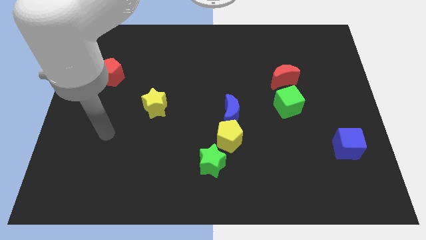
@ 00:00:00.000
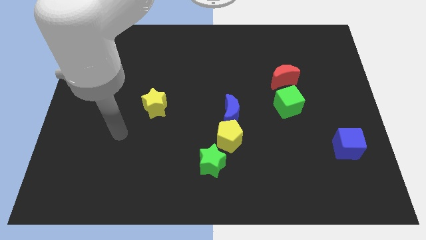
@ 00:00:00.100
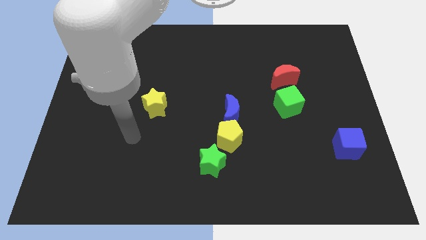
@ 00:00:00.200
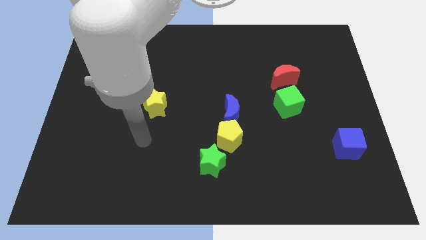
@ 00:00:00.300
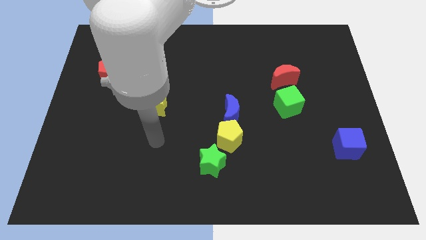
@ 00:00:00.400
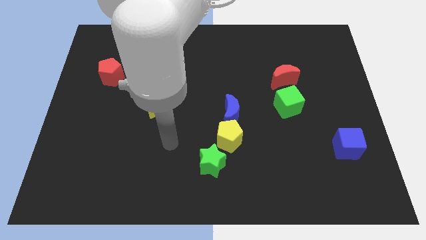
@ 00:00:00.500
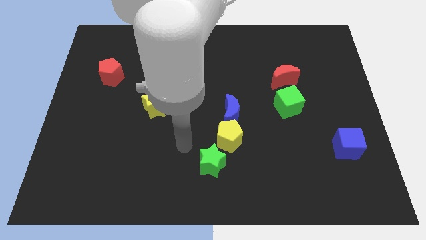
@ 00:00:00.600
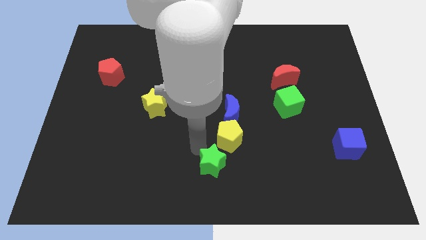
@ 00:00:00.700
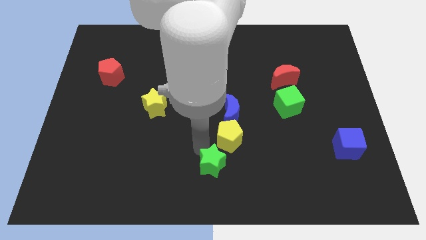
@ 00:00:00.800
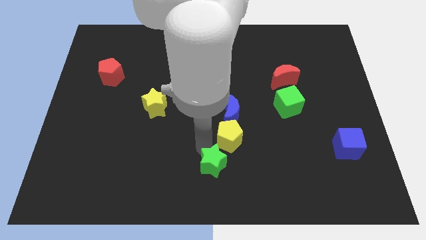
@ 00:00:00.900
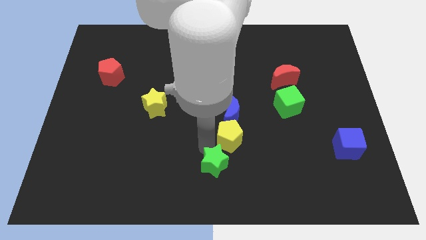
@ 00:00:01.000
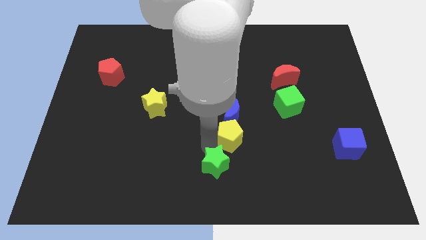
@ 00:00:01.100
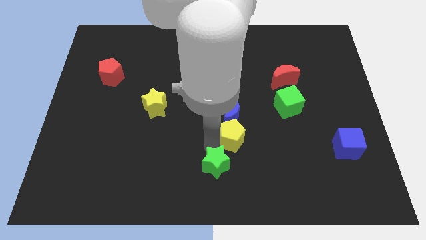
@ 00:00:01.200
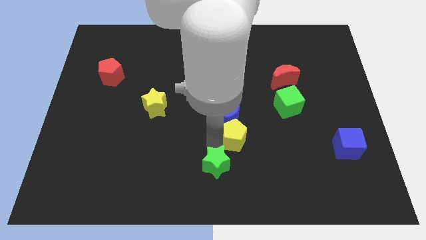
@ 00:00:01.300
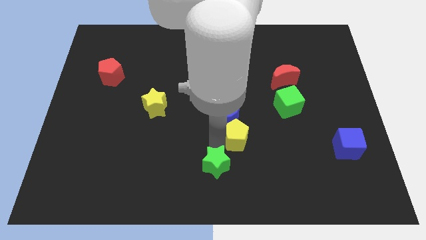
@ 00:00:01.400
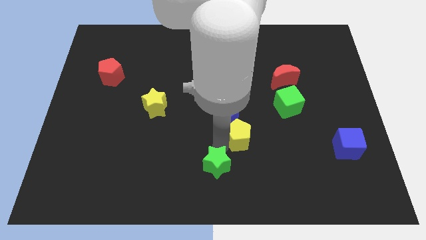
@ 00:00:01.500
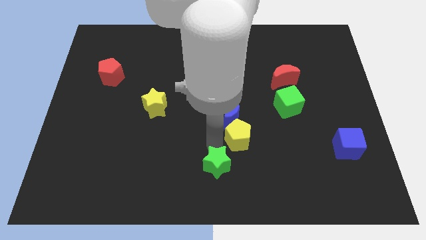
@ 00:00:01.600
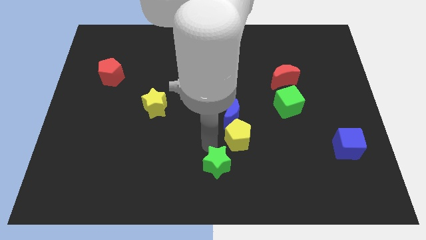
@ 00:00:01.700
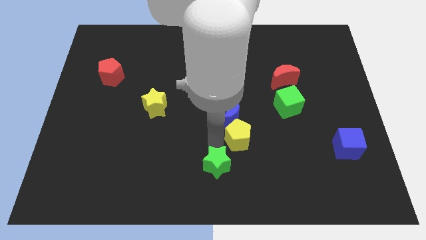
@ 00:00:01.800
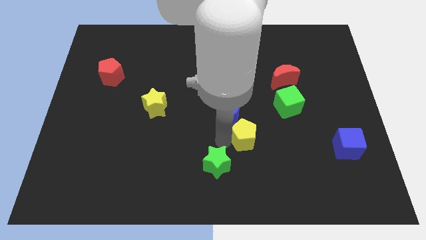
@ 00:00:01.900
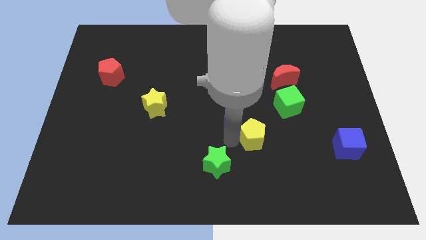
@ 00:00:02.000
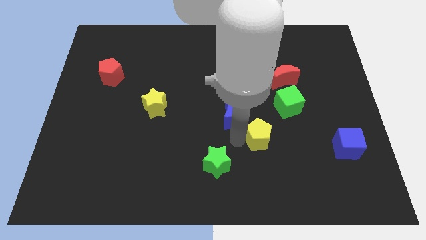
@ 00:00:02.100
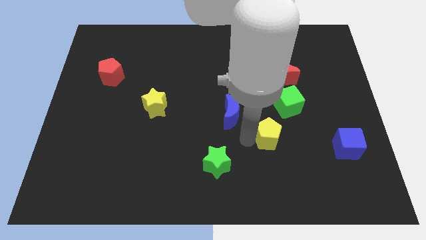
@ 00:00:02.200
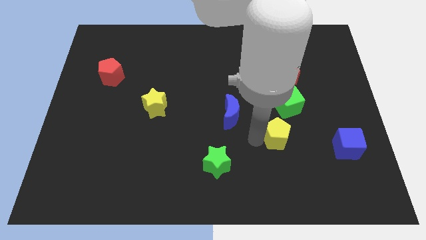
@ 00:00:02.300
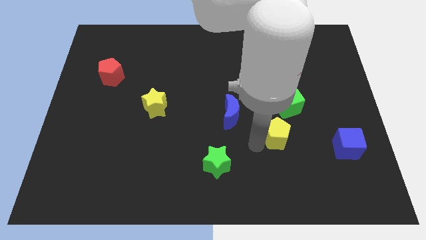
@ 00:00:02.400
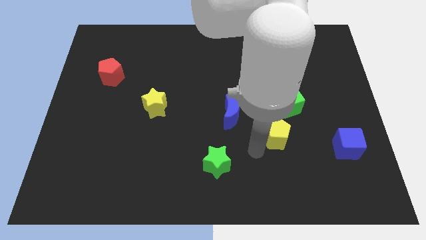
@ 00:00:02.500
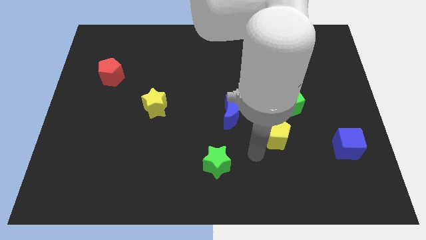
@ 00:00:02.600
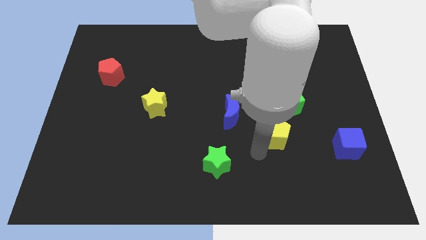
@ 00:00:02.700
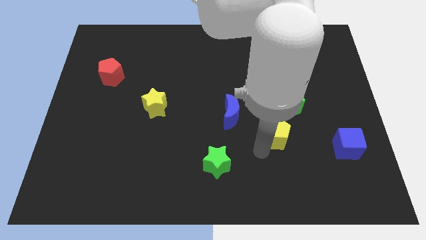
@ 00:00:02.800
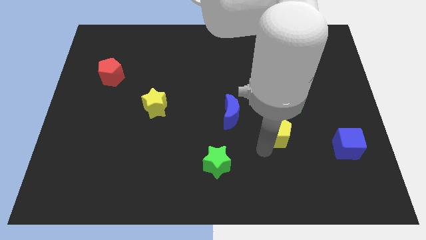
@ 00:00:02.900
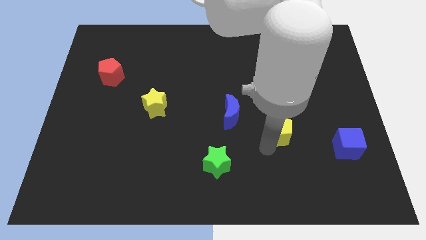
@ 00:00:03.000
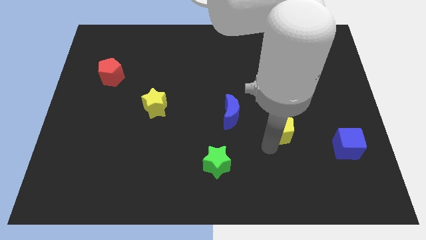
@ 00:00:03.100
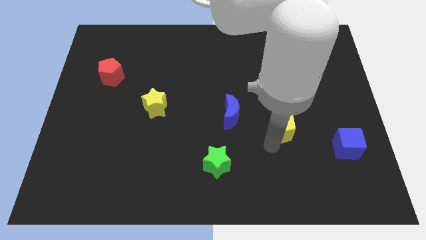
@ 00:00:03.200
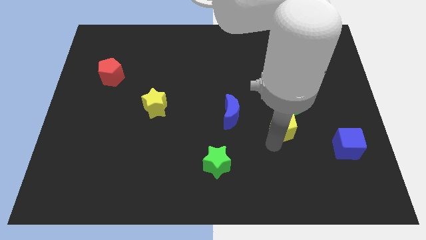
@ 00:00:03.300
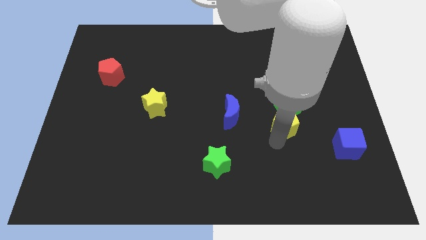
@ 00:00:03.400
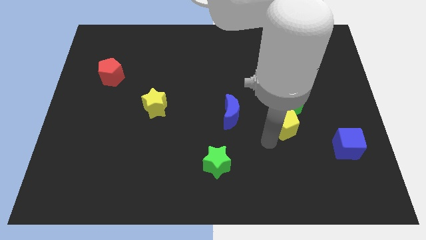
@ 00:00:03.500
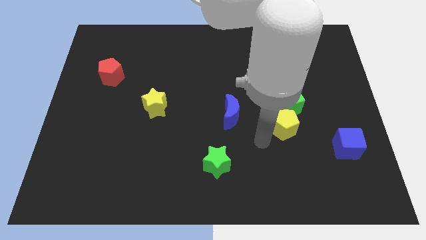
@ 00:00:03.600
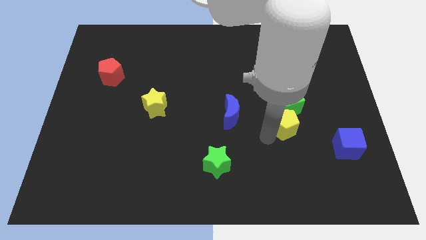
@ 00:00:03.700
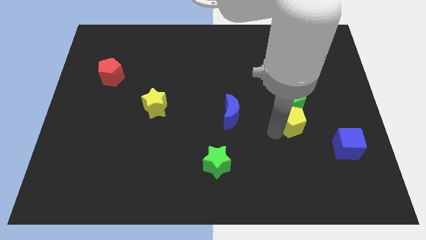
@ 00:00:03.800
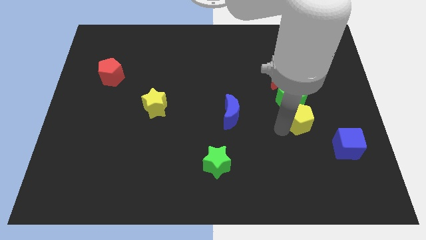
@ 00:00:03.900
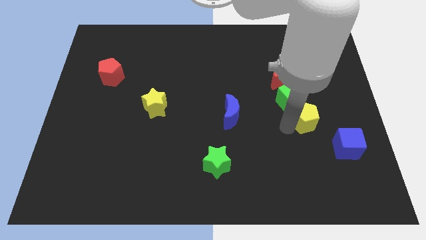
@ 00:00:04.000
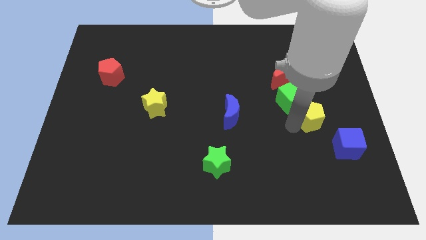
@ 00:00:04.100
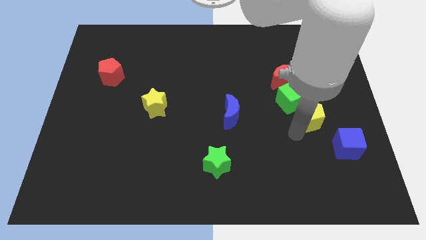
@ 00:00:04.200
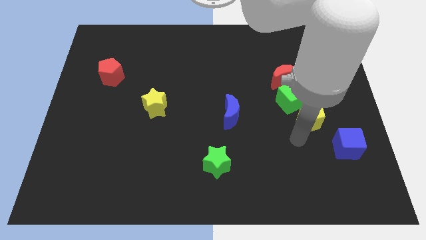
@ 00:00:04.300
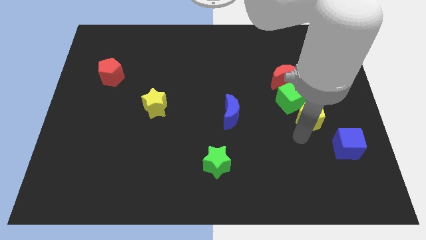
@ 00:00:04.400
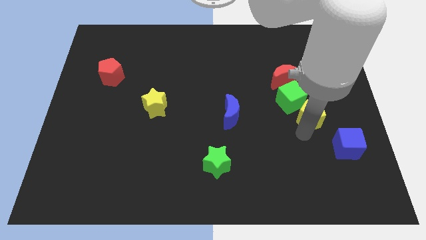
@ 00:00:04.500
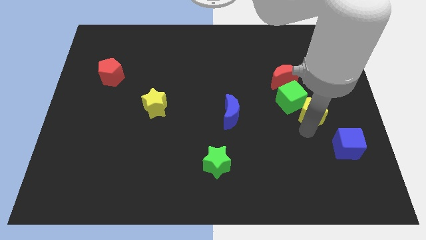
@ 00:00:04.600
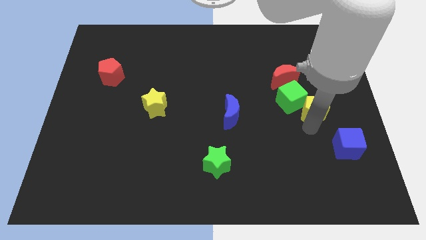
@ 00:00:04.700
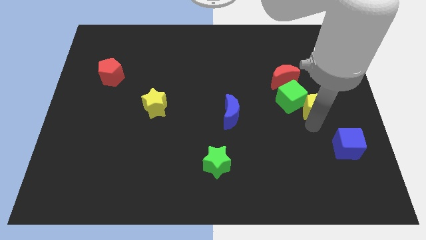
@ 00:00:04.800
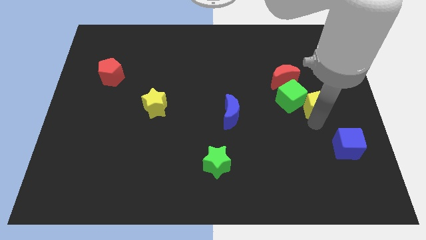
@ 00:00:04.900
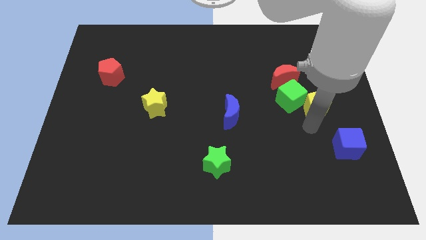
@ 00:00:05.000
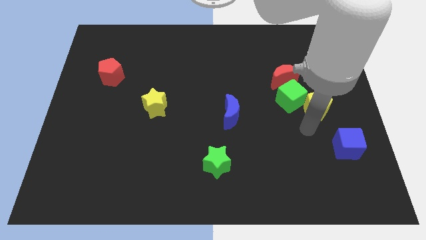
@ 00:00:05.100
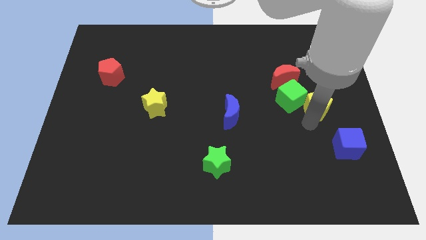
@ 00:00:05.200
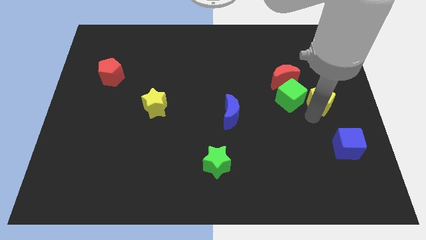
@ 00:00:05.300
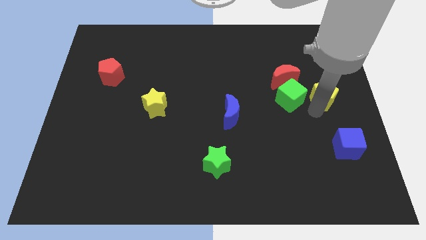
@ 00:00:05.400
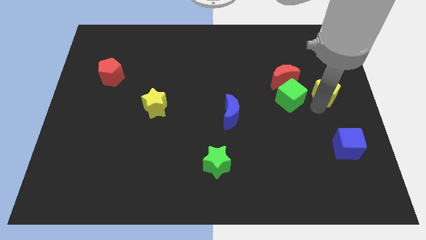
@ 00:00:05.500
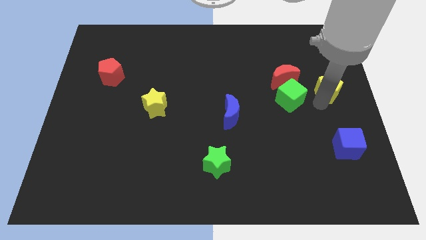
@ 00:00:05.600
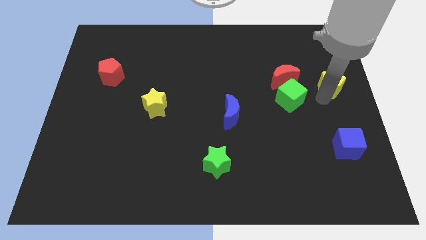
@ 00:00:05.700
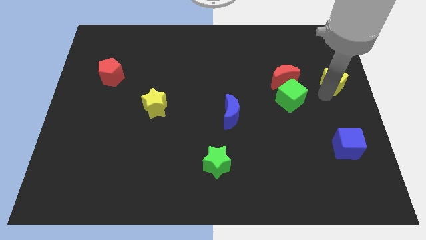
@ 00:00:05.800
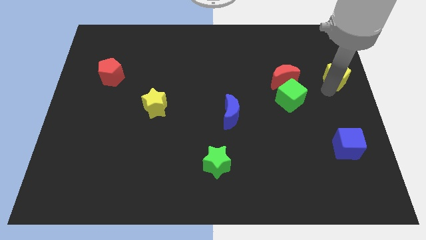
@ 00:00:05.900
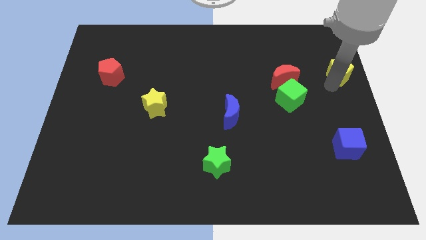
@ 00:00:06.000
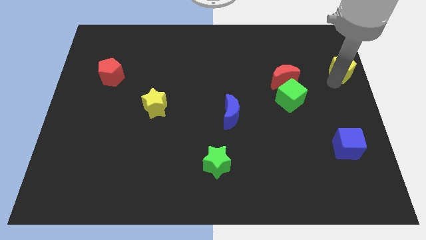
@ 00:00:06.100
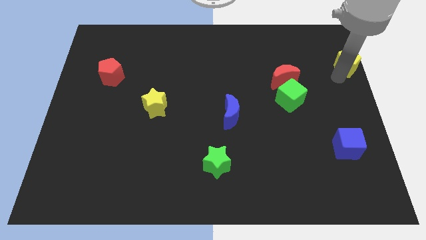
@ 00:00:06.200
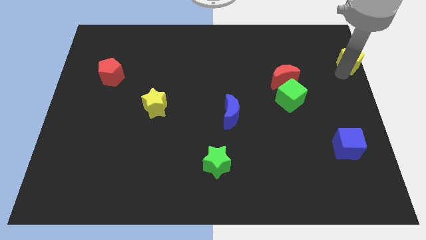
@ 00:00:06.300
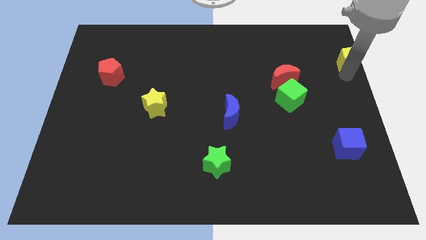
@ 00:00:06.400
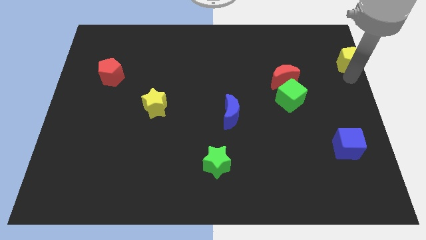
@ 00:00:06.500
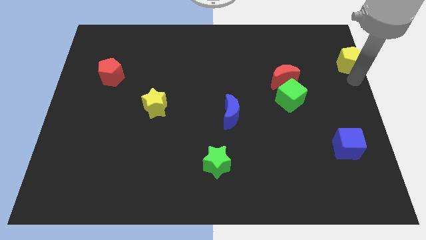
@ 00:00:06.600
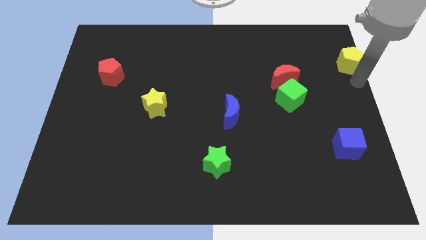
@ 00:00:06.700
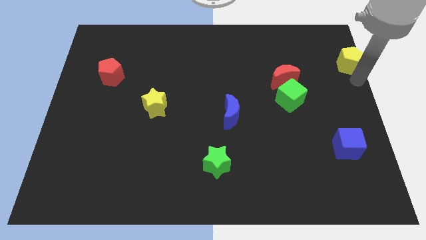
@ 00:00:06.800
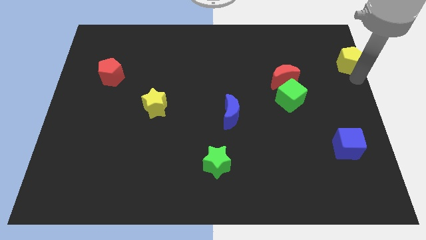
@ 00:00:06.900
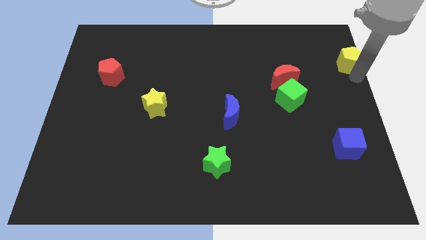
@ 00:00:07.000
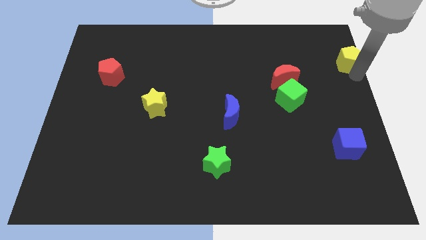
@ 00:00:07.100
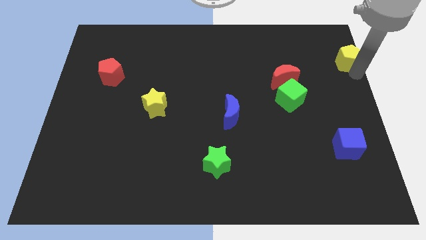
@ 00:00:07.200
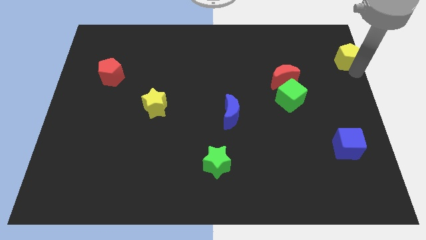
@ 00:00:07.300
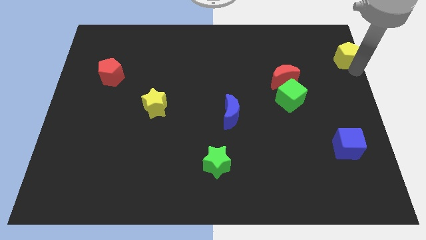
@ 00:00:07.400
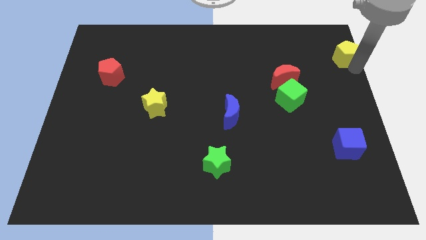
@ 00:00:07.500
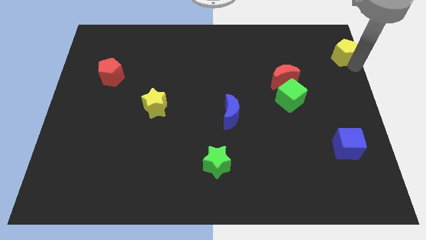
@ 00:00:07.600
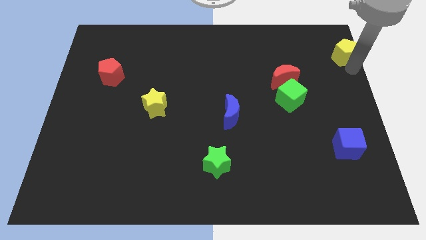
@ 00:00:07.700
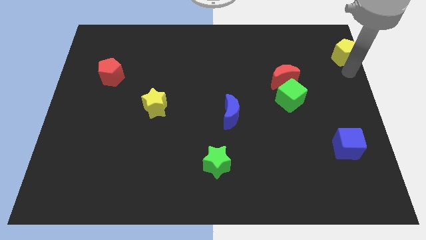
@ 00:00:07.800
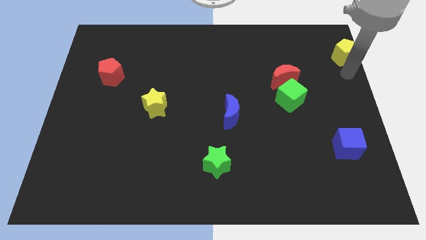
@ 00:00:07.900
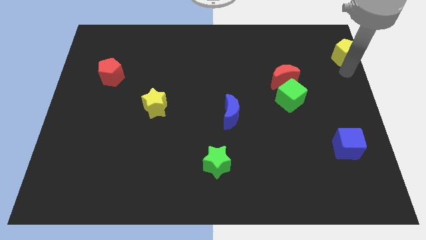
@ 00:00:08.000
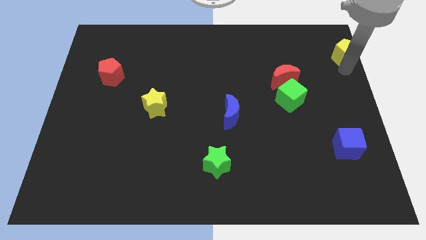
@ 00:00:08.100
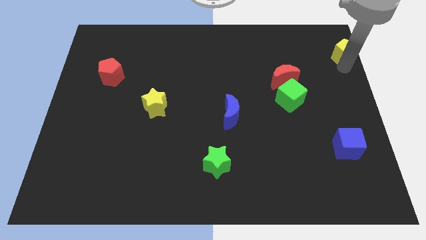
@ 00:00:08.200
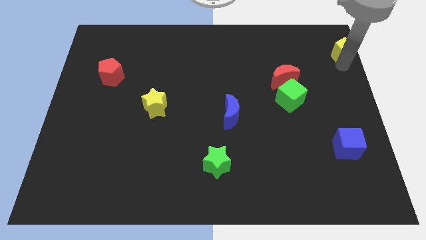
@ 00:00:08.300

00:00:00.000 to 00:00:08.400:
put the yellow pentagon to the upper right corner
